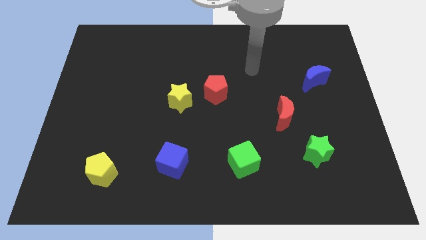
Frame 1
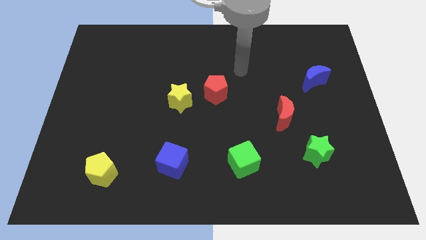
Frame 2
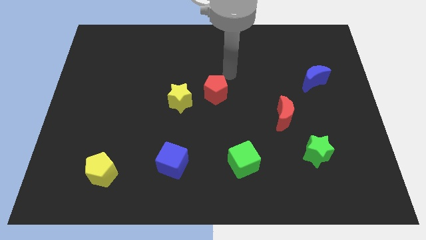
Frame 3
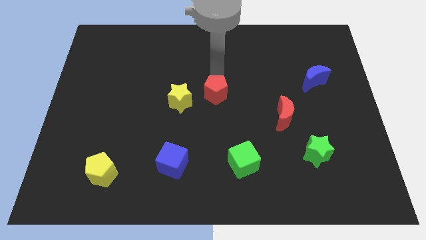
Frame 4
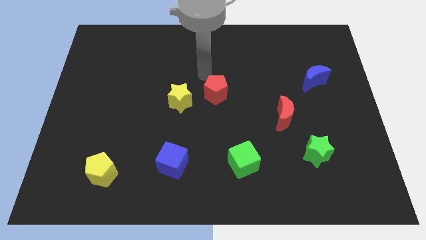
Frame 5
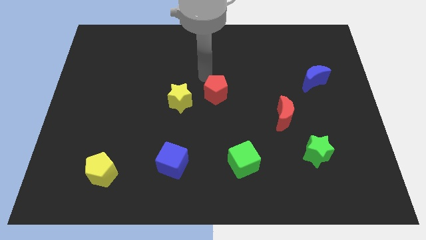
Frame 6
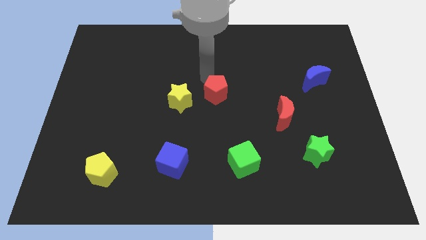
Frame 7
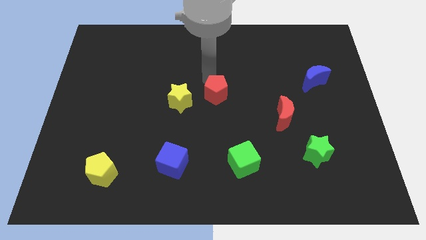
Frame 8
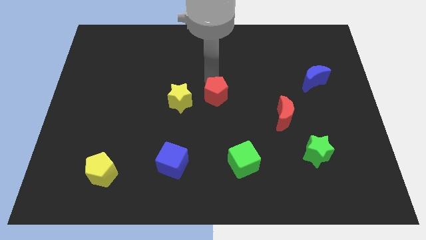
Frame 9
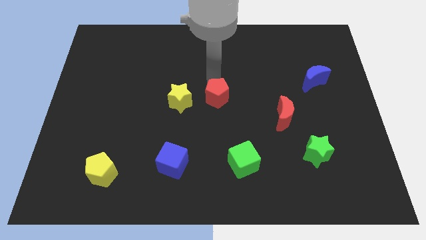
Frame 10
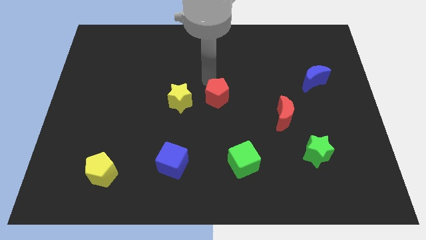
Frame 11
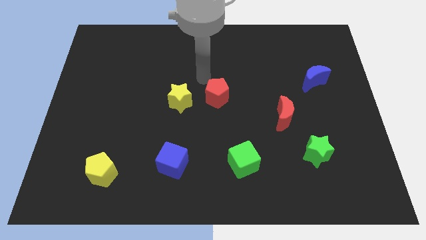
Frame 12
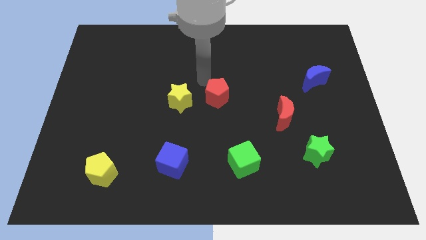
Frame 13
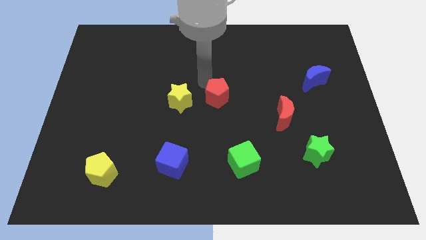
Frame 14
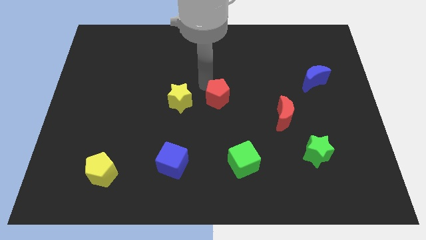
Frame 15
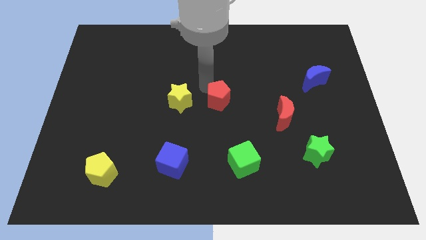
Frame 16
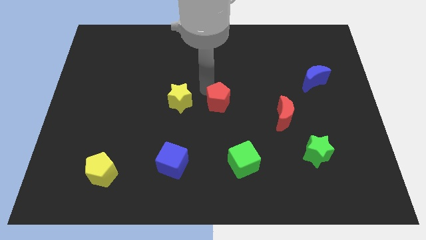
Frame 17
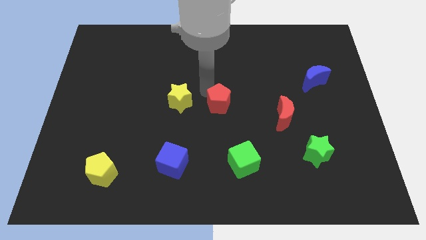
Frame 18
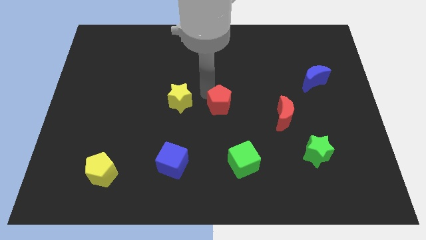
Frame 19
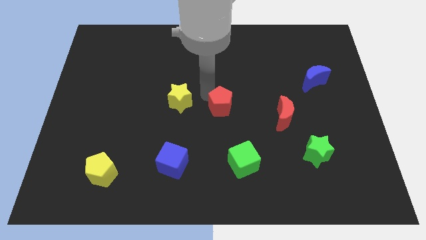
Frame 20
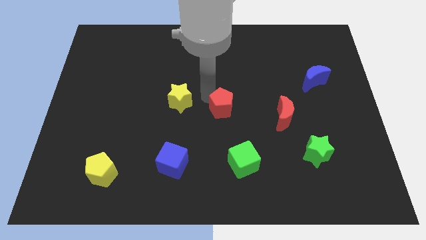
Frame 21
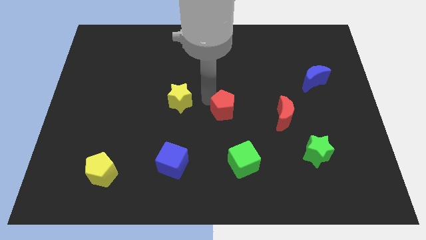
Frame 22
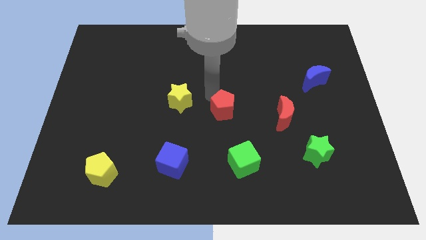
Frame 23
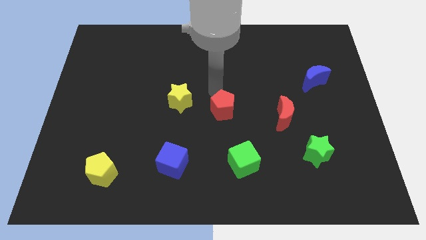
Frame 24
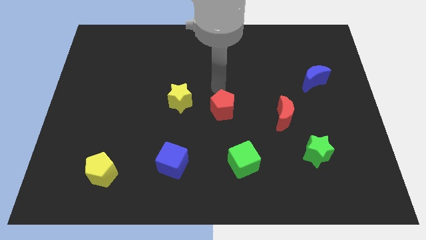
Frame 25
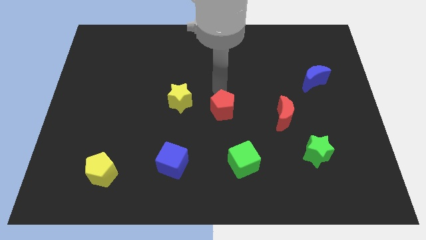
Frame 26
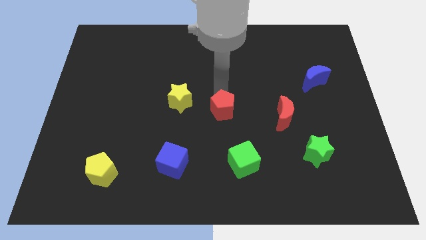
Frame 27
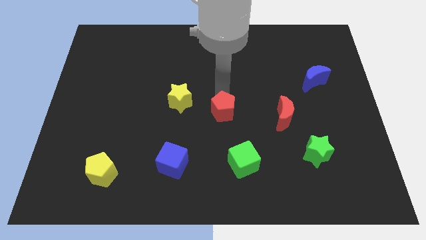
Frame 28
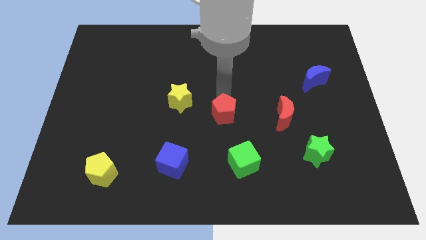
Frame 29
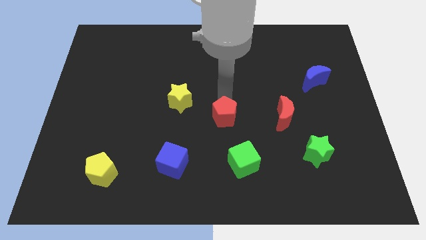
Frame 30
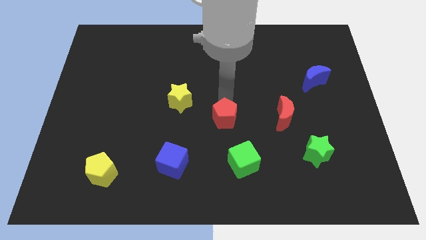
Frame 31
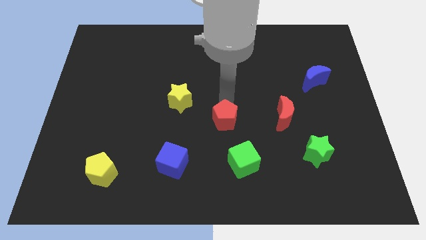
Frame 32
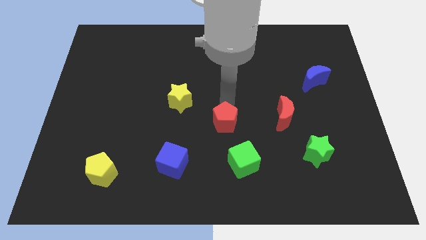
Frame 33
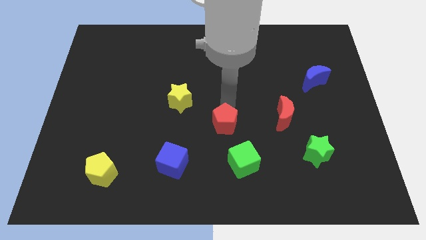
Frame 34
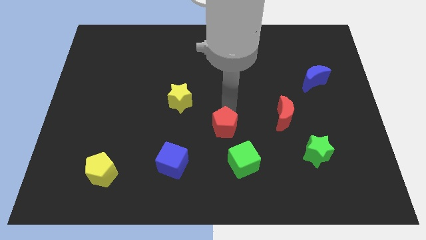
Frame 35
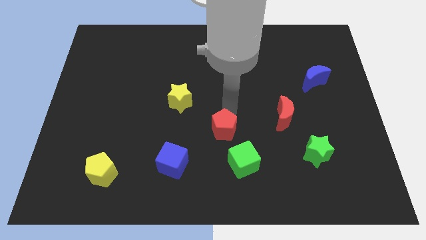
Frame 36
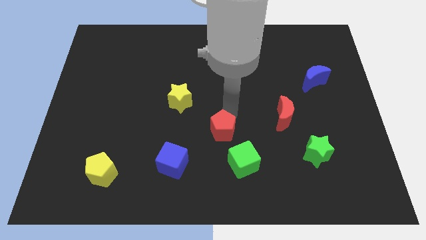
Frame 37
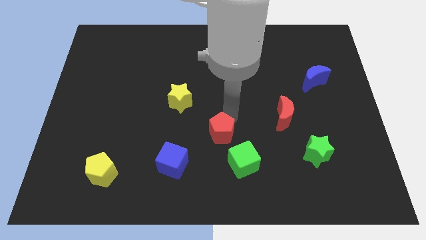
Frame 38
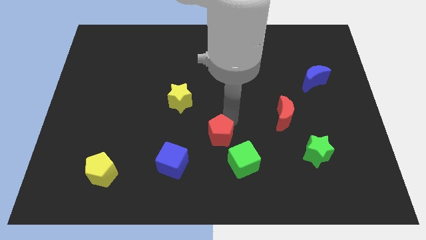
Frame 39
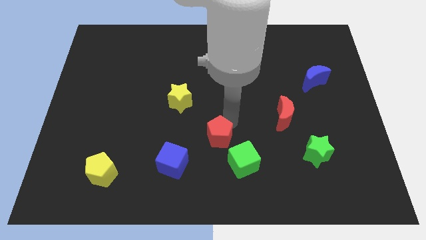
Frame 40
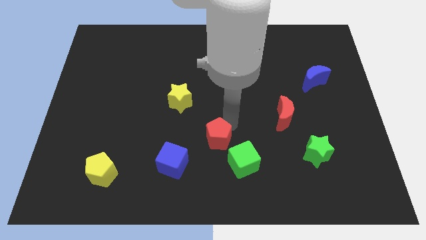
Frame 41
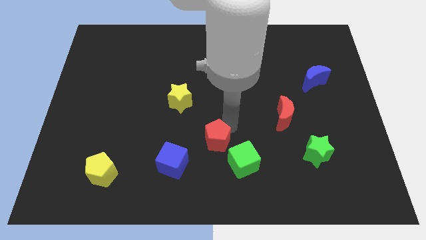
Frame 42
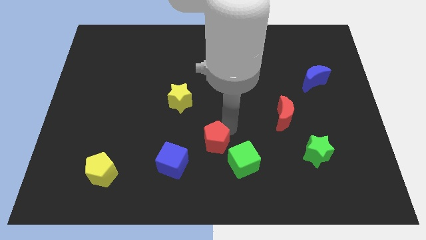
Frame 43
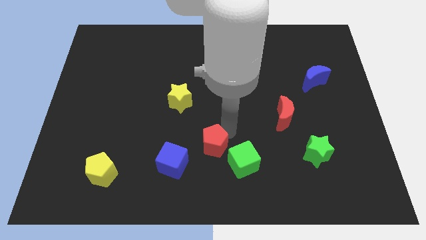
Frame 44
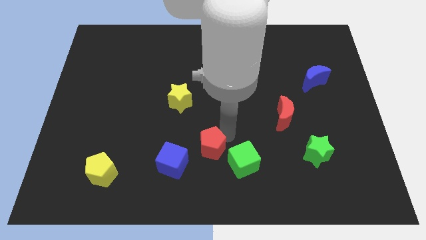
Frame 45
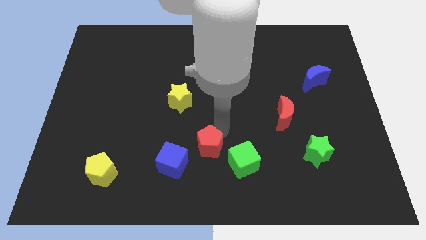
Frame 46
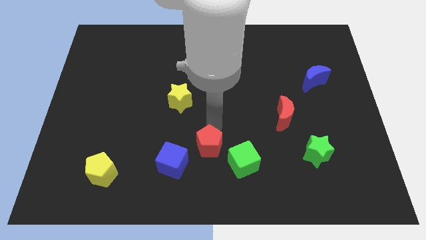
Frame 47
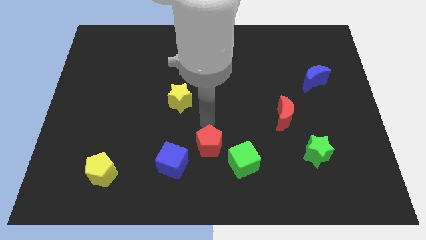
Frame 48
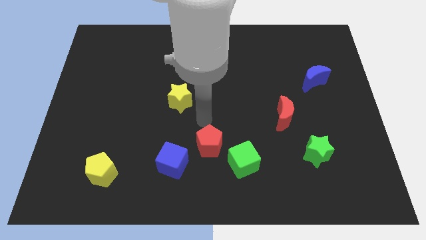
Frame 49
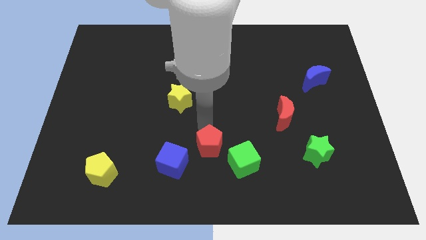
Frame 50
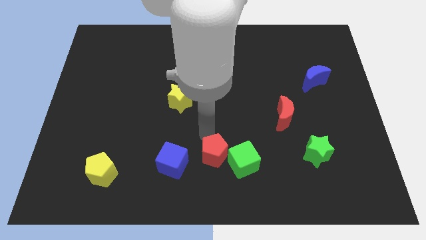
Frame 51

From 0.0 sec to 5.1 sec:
move the red pentagon to the bottom side

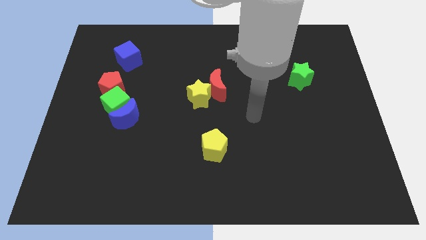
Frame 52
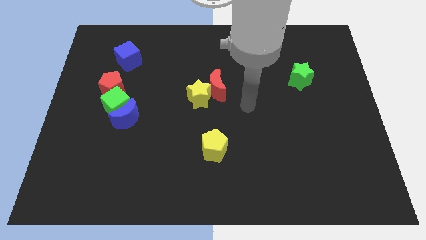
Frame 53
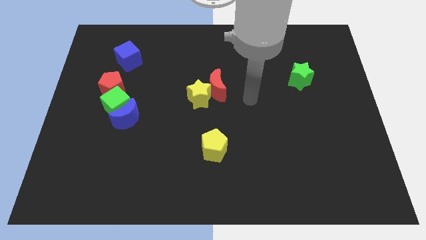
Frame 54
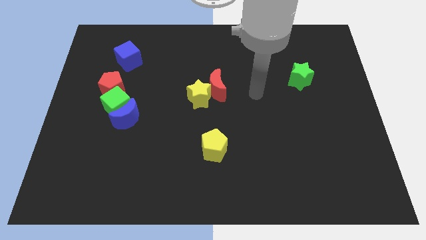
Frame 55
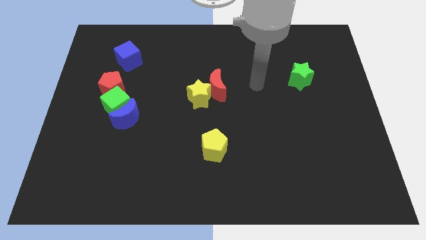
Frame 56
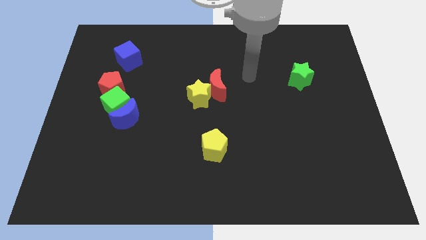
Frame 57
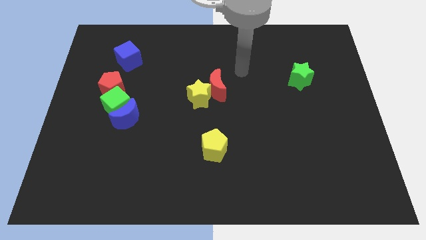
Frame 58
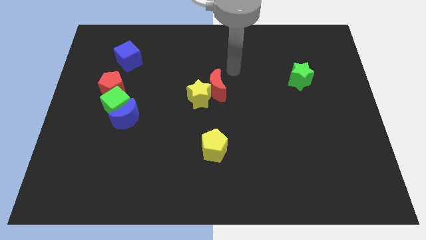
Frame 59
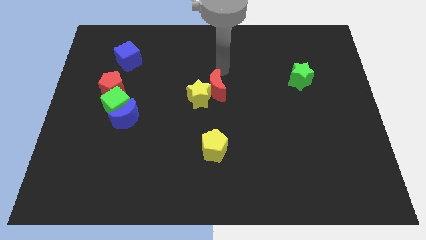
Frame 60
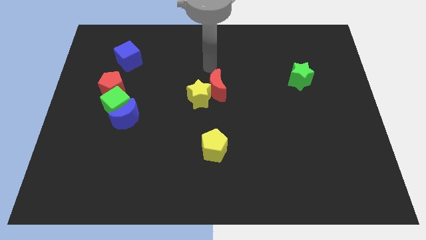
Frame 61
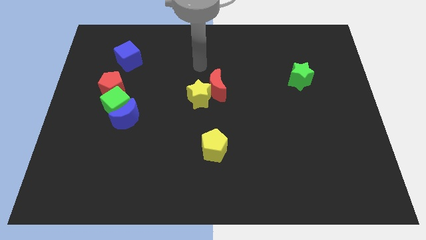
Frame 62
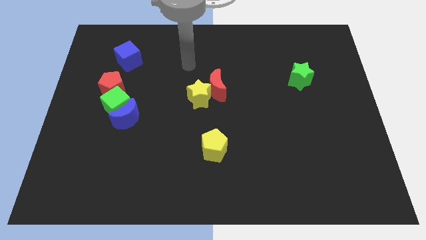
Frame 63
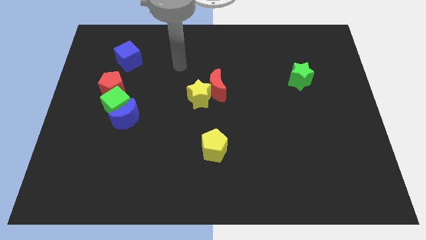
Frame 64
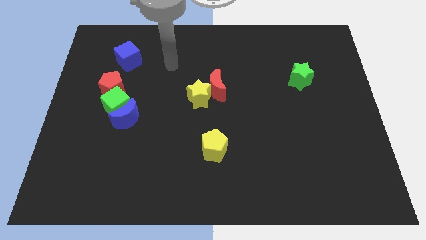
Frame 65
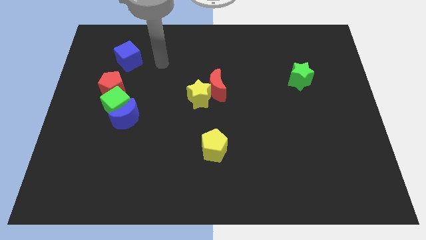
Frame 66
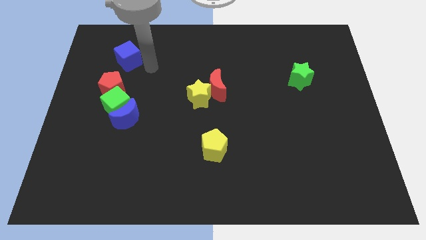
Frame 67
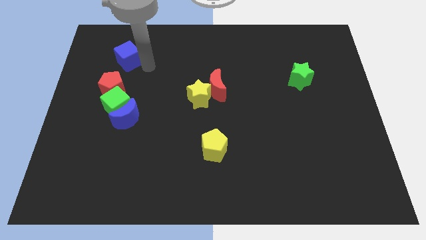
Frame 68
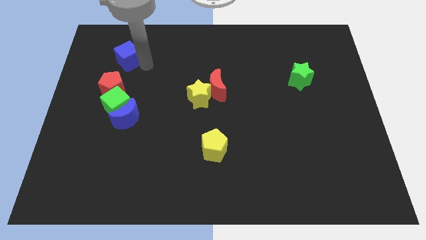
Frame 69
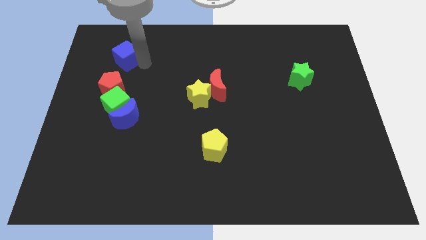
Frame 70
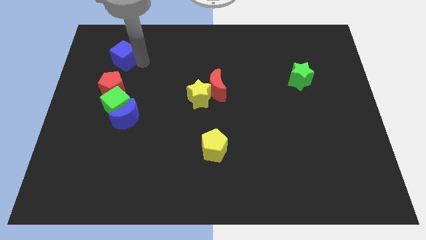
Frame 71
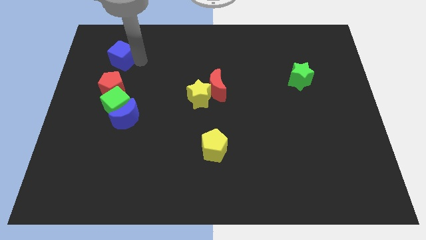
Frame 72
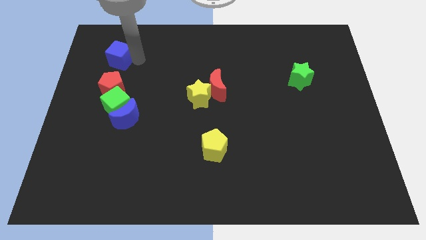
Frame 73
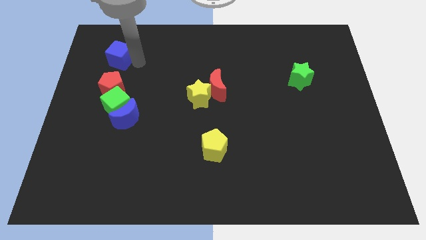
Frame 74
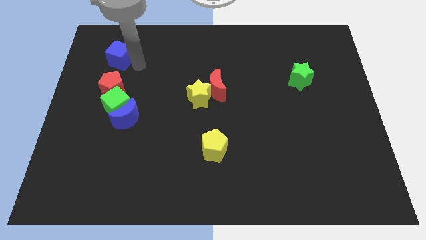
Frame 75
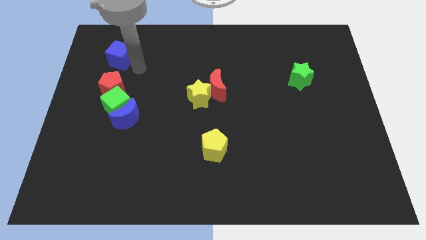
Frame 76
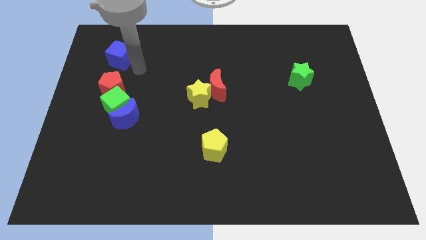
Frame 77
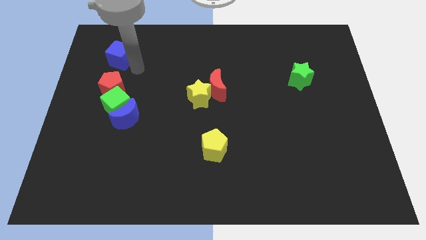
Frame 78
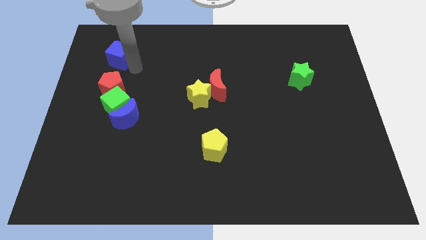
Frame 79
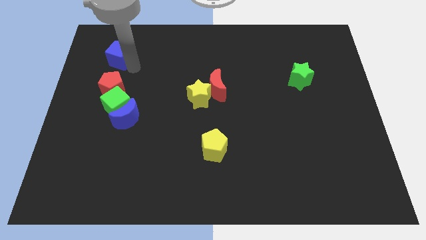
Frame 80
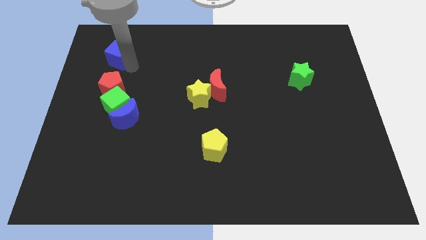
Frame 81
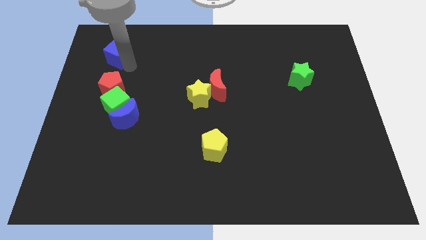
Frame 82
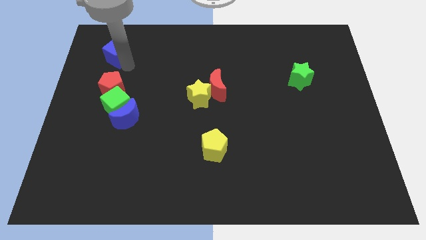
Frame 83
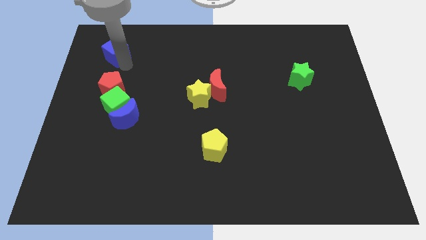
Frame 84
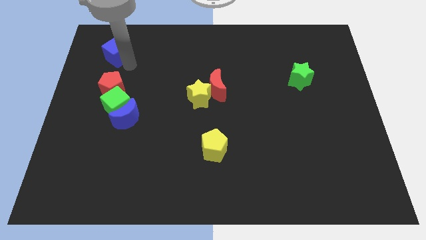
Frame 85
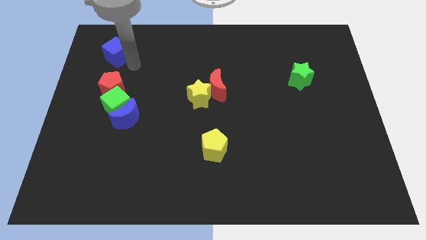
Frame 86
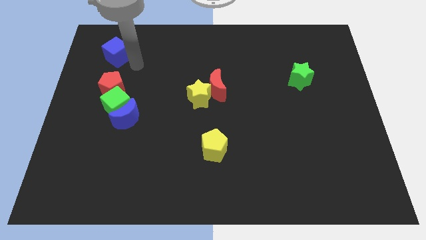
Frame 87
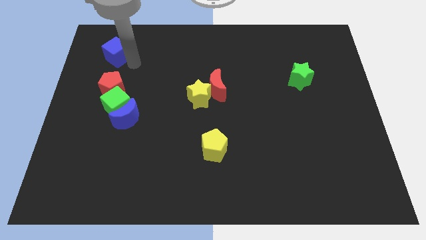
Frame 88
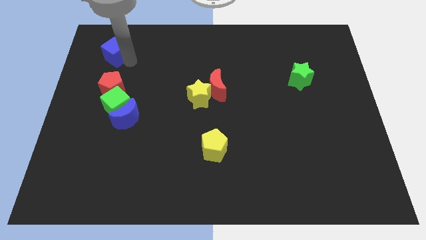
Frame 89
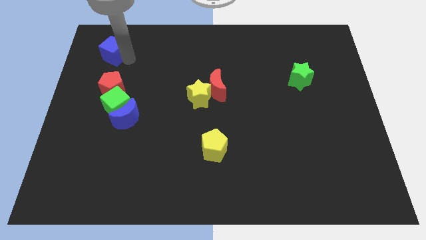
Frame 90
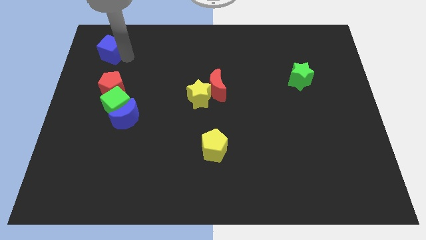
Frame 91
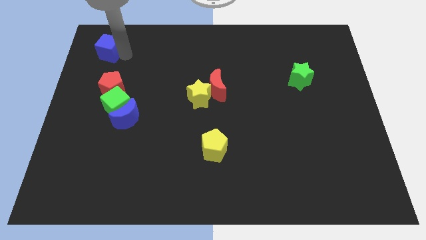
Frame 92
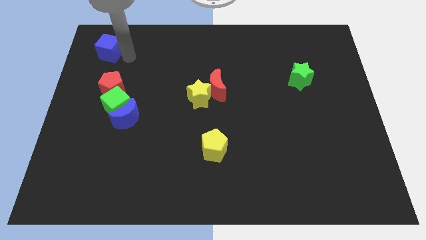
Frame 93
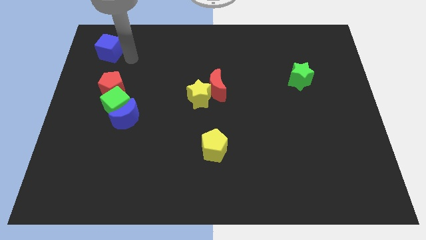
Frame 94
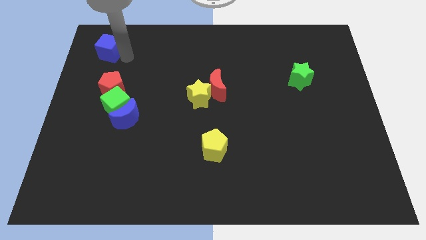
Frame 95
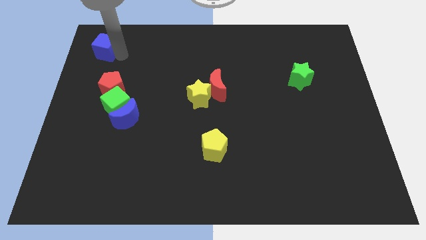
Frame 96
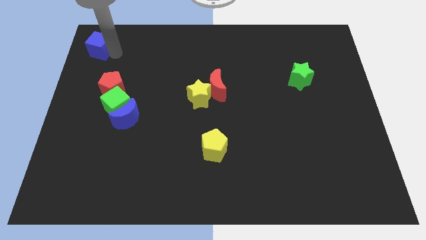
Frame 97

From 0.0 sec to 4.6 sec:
slide the blue cube to the top left of the board
